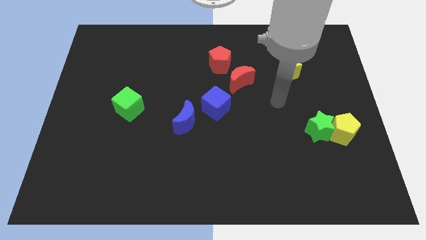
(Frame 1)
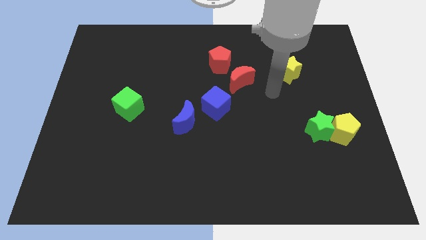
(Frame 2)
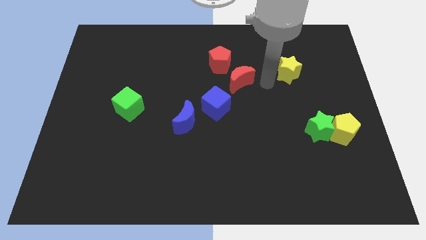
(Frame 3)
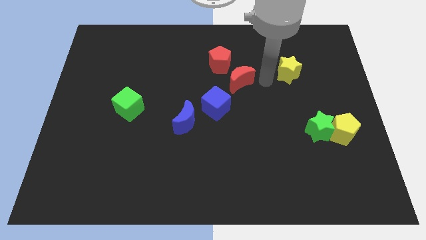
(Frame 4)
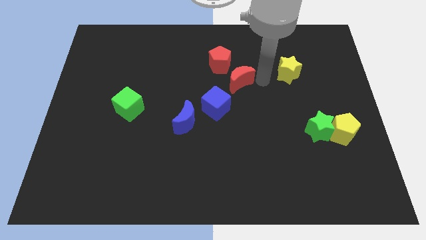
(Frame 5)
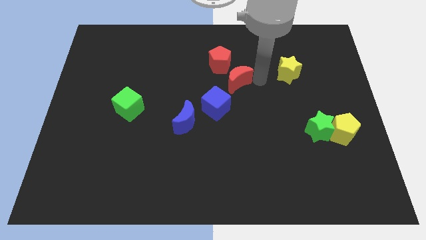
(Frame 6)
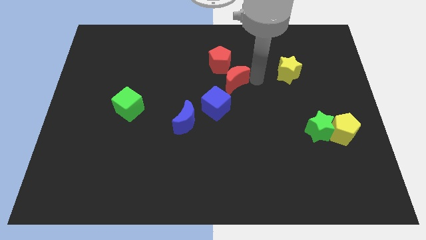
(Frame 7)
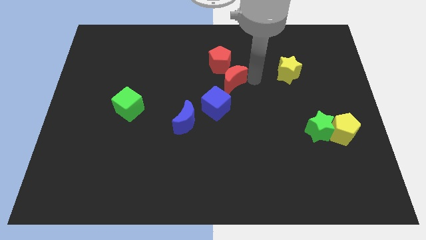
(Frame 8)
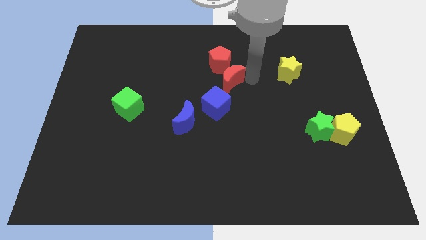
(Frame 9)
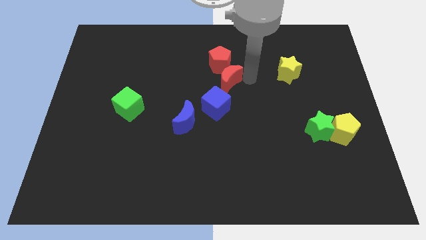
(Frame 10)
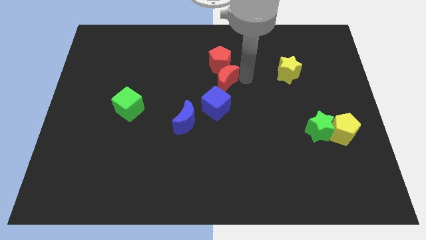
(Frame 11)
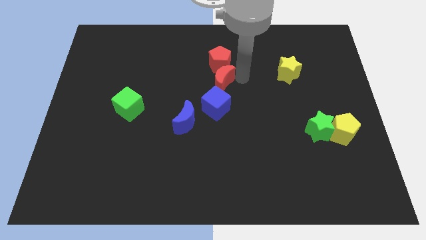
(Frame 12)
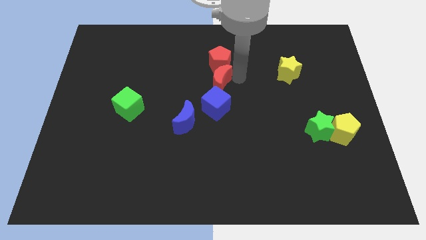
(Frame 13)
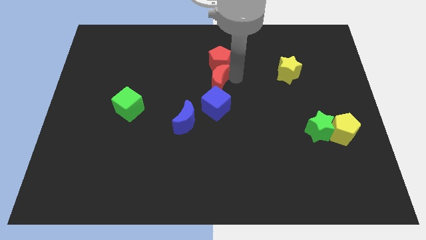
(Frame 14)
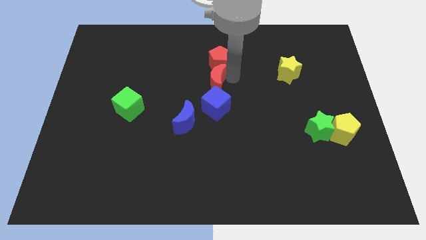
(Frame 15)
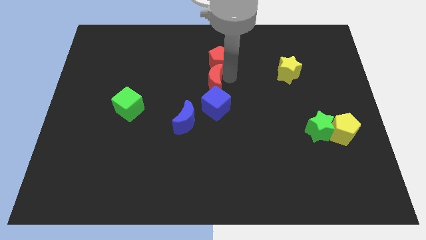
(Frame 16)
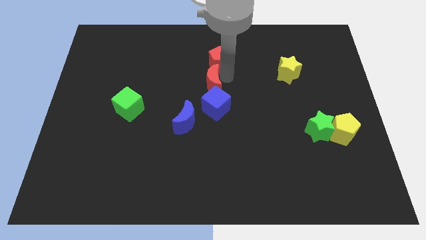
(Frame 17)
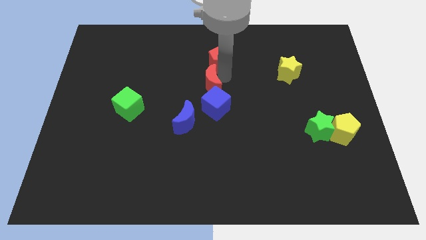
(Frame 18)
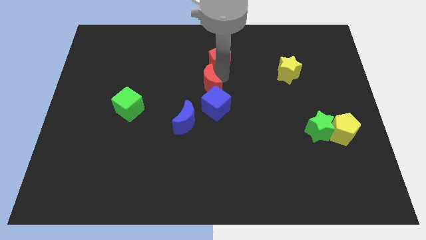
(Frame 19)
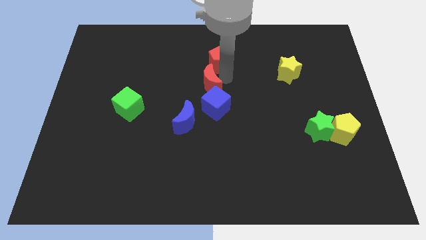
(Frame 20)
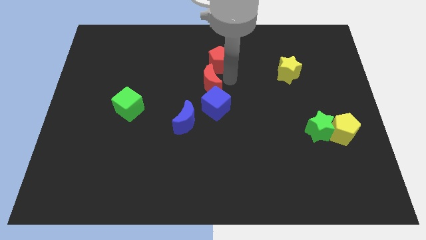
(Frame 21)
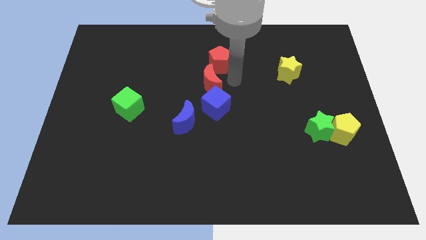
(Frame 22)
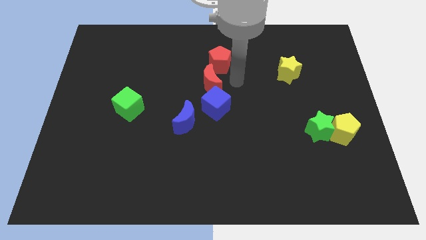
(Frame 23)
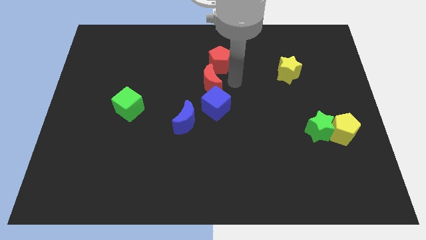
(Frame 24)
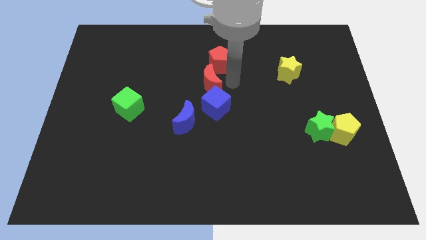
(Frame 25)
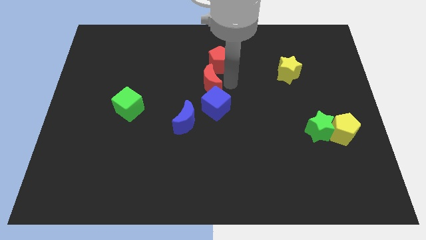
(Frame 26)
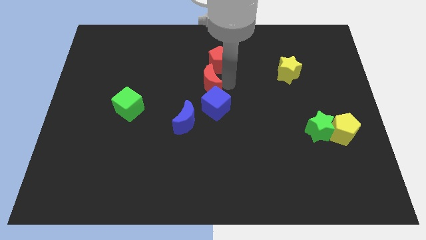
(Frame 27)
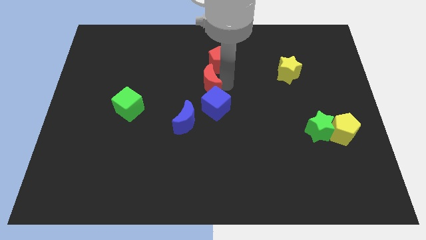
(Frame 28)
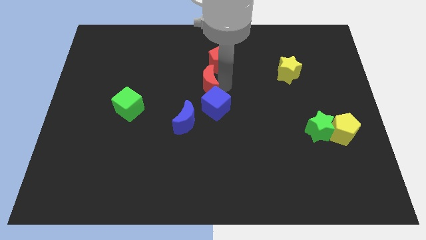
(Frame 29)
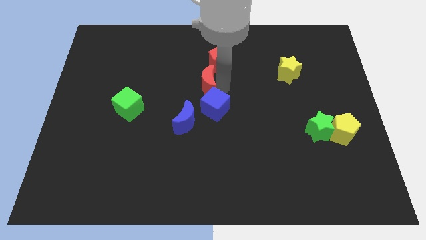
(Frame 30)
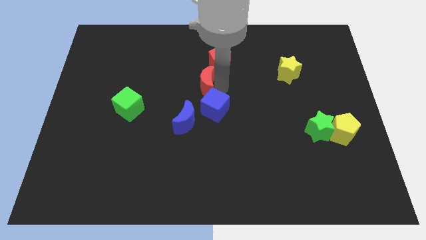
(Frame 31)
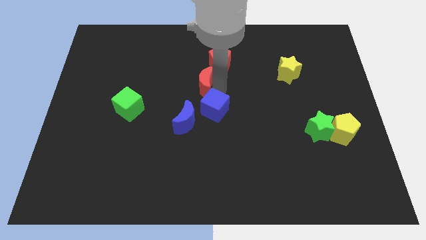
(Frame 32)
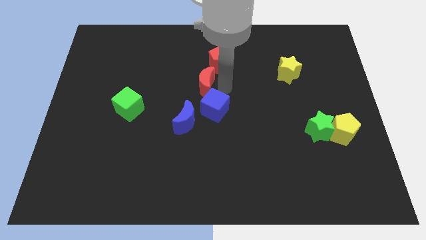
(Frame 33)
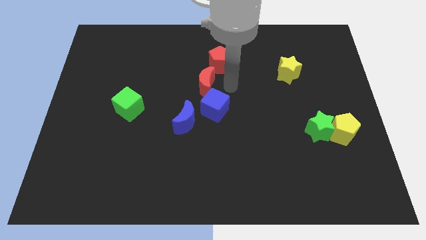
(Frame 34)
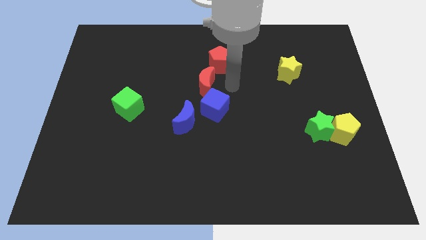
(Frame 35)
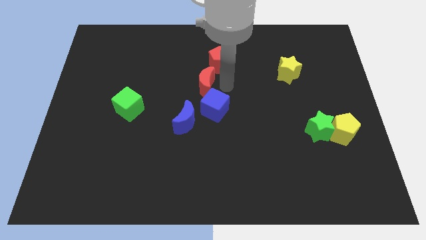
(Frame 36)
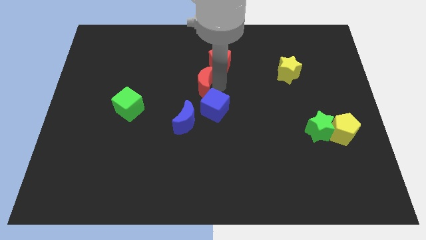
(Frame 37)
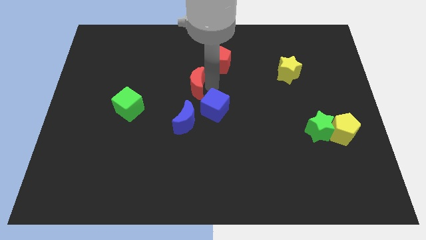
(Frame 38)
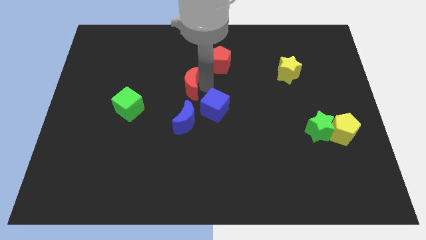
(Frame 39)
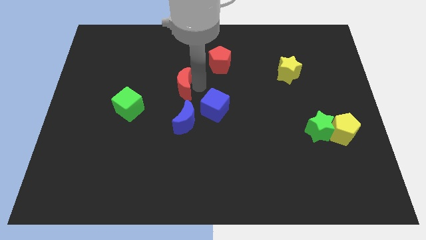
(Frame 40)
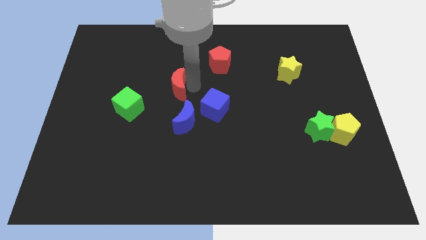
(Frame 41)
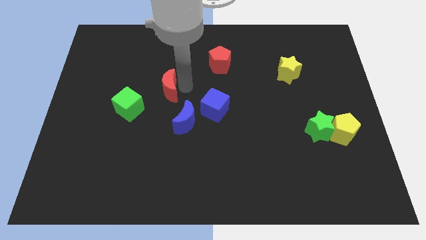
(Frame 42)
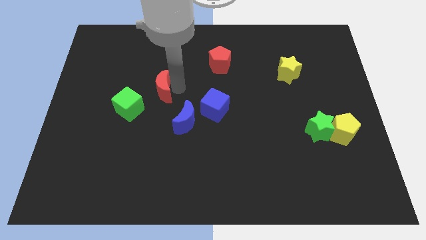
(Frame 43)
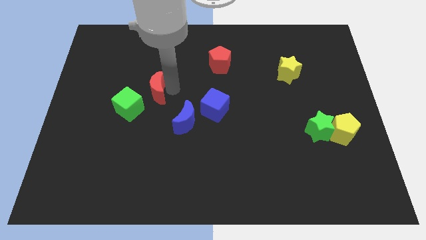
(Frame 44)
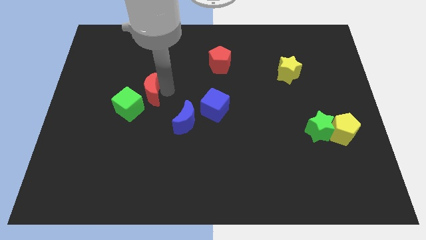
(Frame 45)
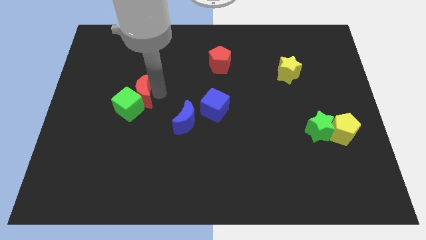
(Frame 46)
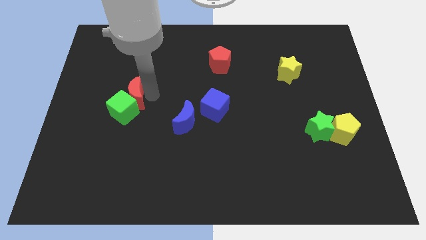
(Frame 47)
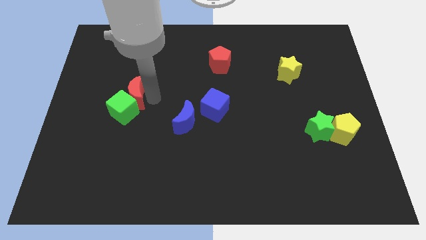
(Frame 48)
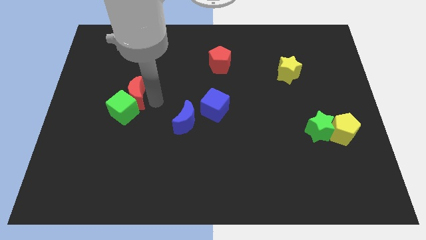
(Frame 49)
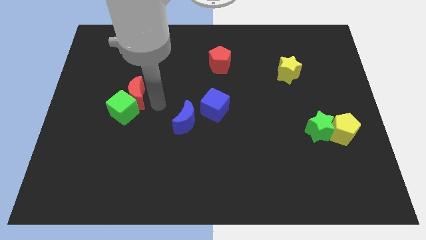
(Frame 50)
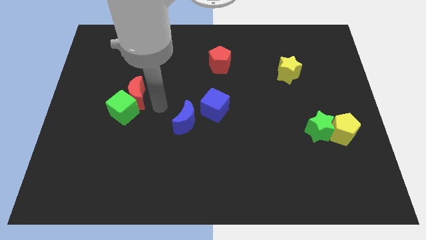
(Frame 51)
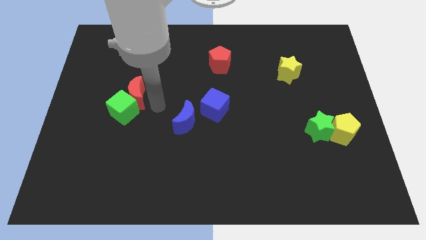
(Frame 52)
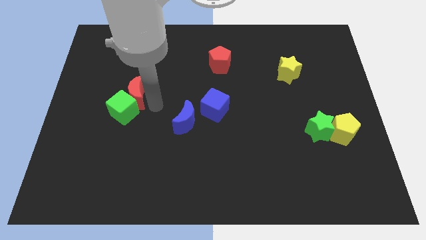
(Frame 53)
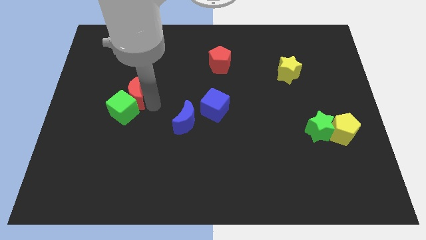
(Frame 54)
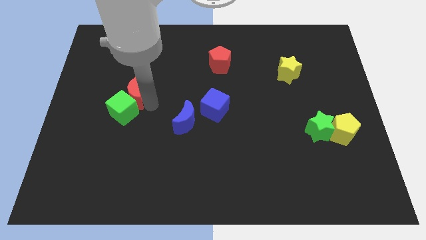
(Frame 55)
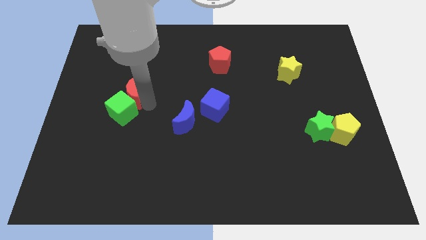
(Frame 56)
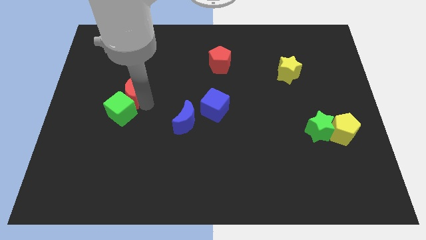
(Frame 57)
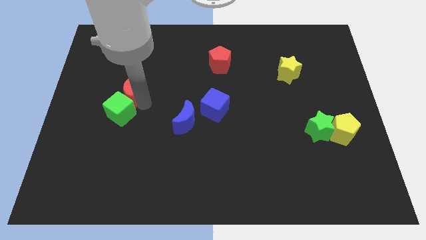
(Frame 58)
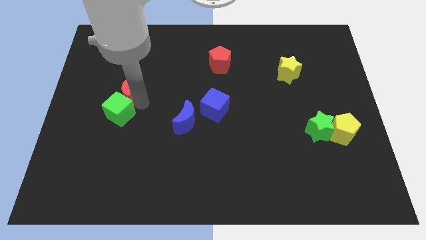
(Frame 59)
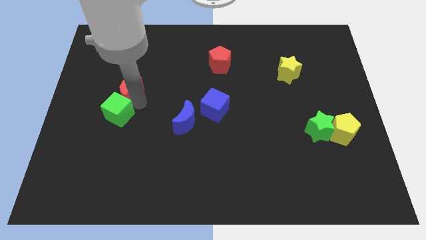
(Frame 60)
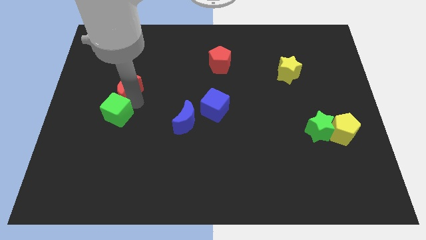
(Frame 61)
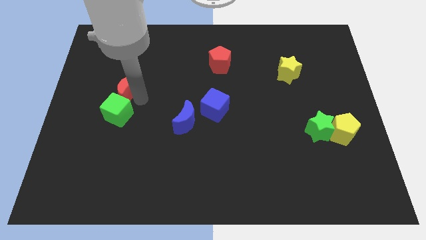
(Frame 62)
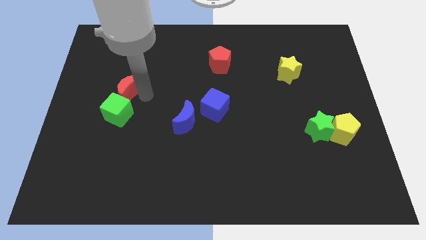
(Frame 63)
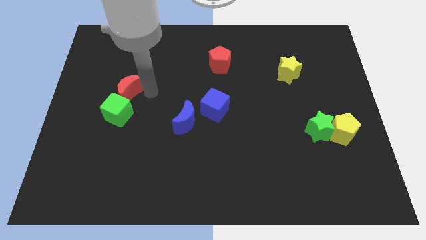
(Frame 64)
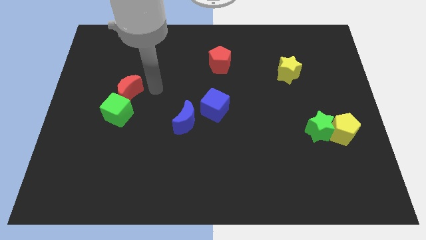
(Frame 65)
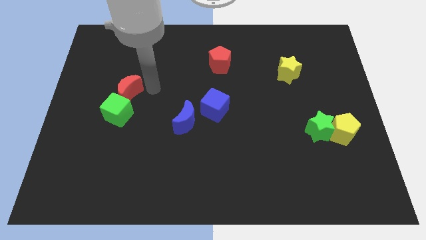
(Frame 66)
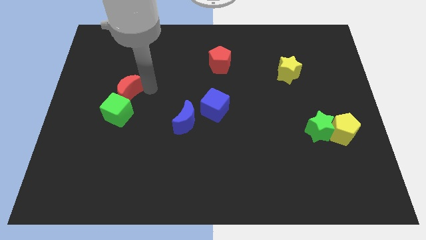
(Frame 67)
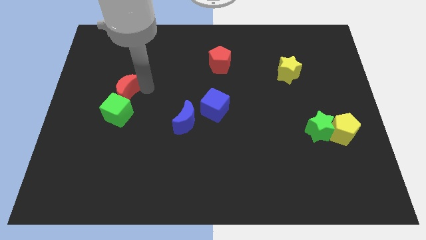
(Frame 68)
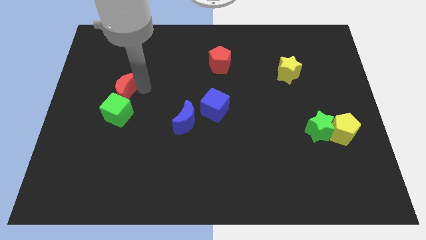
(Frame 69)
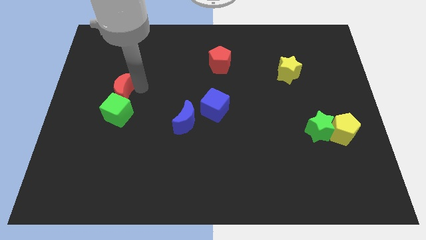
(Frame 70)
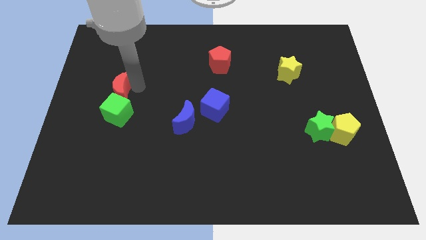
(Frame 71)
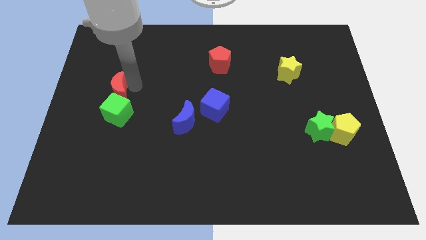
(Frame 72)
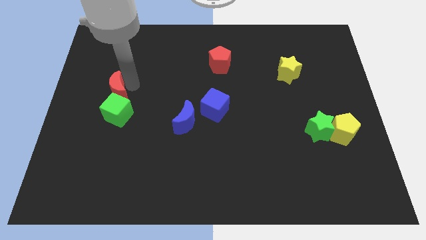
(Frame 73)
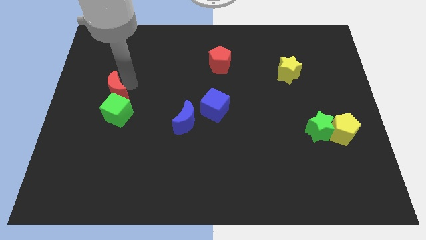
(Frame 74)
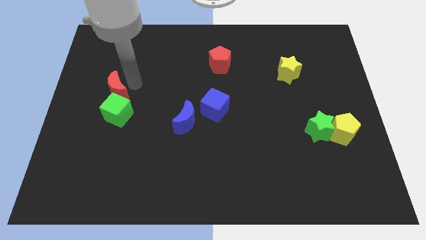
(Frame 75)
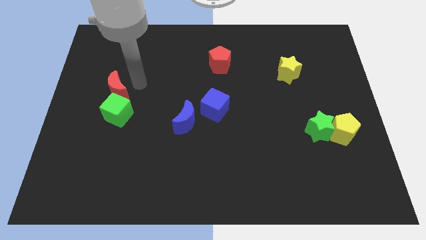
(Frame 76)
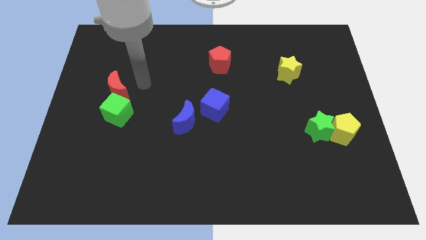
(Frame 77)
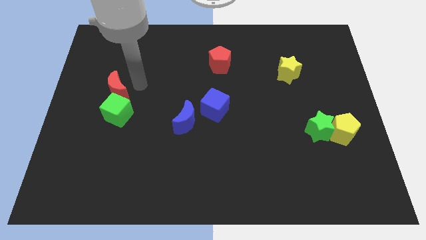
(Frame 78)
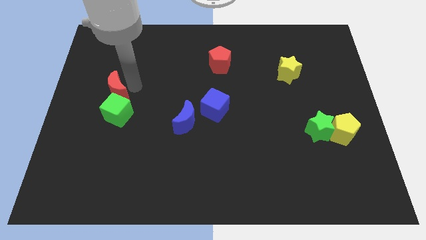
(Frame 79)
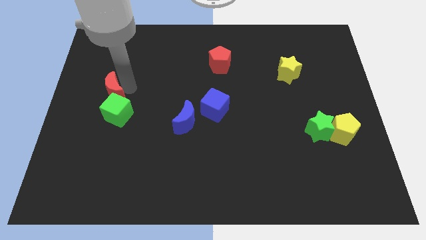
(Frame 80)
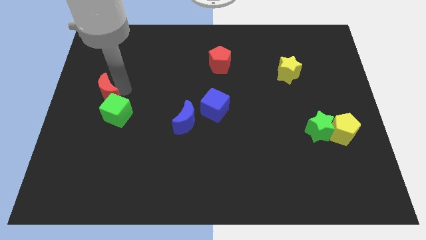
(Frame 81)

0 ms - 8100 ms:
slide the red moon to the left side
